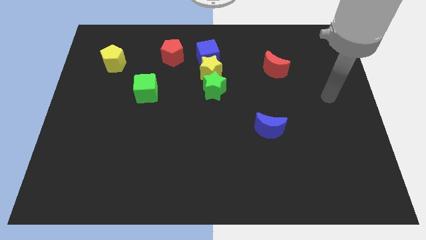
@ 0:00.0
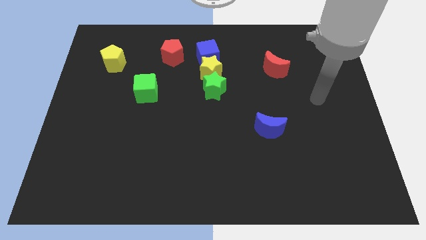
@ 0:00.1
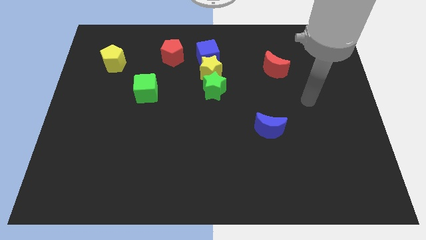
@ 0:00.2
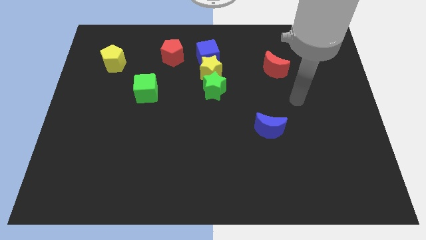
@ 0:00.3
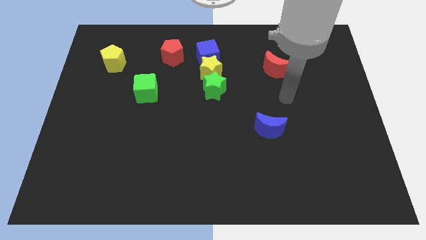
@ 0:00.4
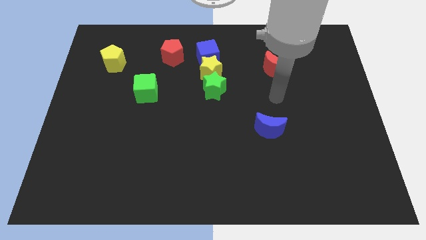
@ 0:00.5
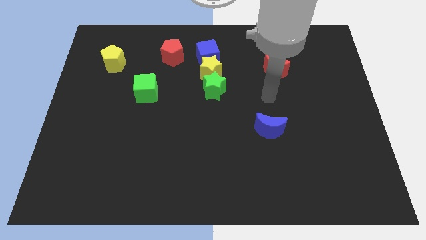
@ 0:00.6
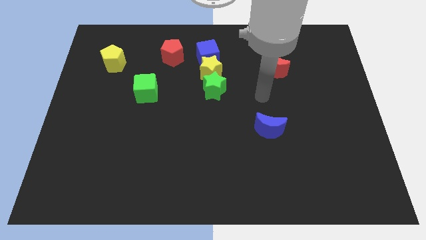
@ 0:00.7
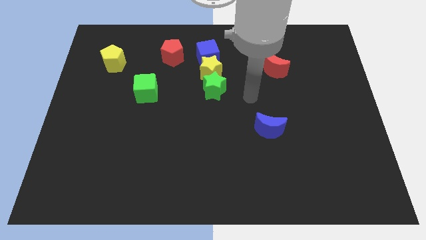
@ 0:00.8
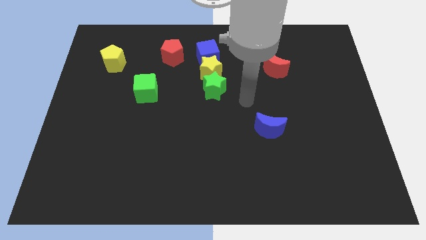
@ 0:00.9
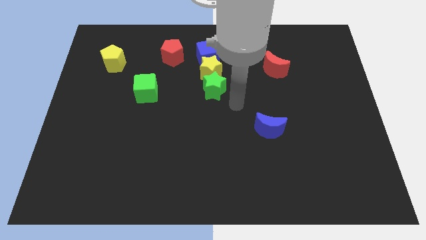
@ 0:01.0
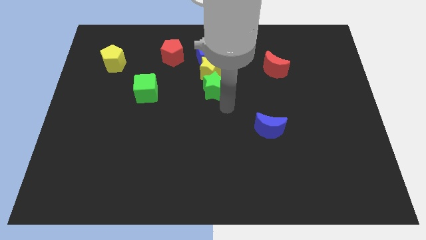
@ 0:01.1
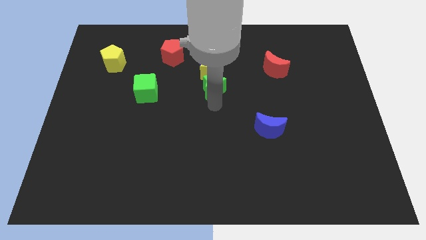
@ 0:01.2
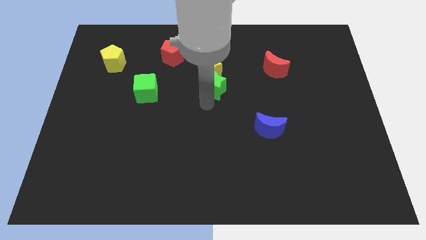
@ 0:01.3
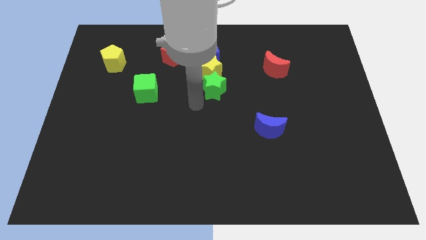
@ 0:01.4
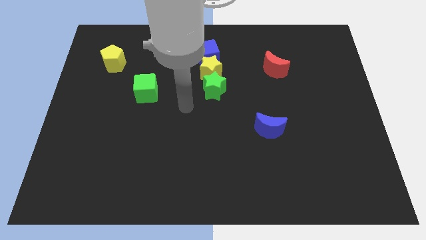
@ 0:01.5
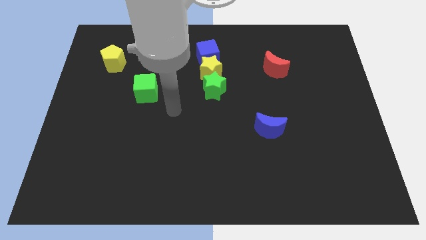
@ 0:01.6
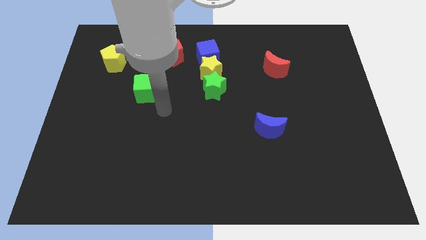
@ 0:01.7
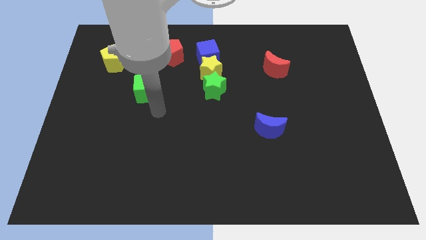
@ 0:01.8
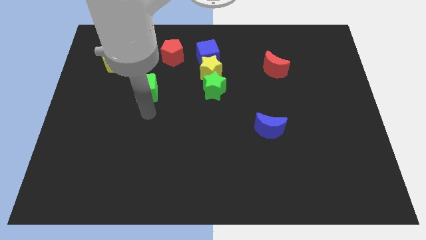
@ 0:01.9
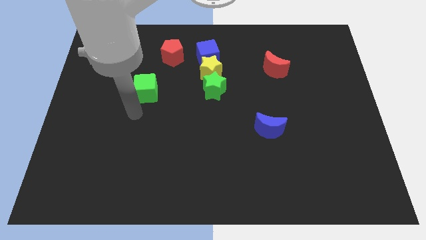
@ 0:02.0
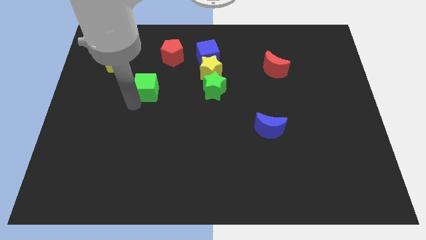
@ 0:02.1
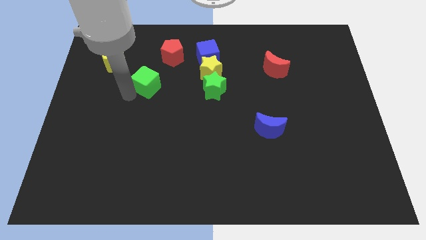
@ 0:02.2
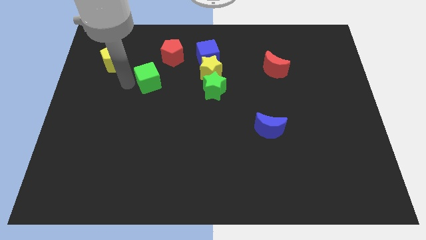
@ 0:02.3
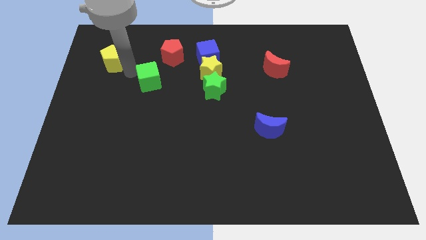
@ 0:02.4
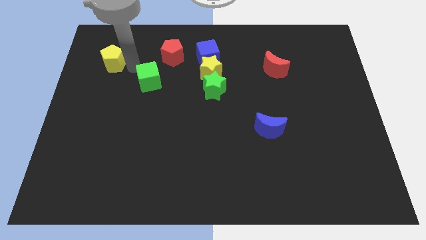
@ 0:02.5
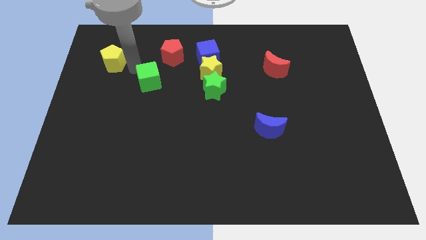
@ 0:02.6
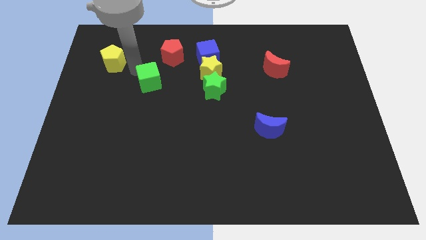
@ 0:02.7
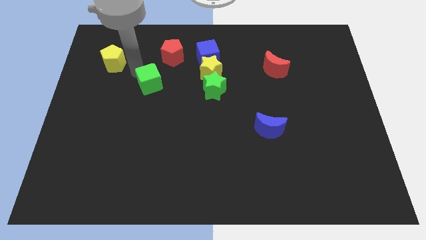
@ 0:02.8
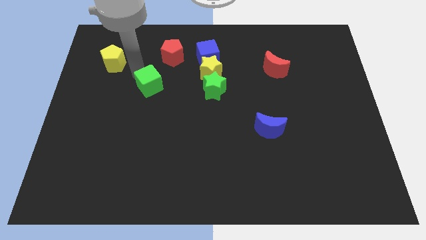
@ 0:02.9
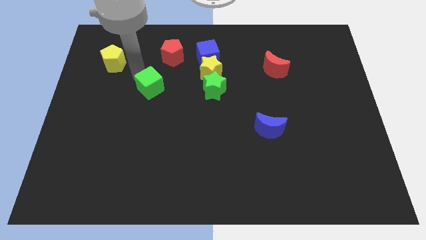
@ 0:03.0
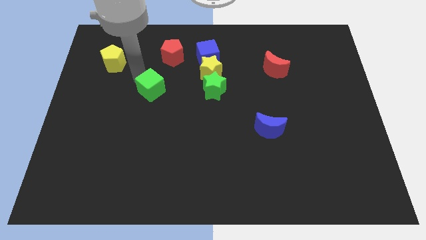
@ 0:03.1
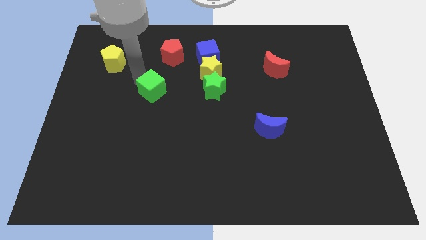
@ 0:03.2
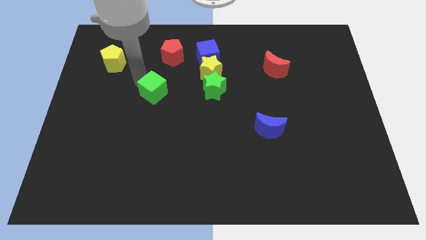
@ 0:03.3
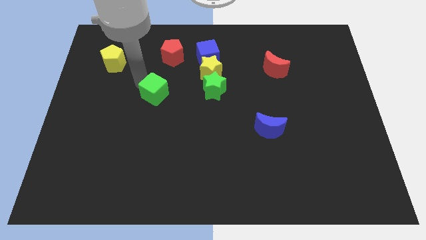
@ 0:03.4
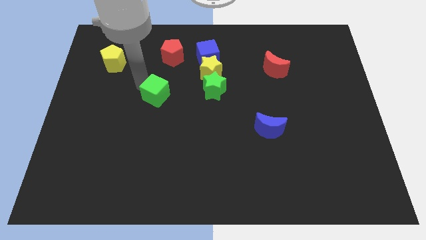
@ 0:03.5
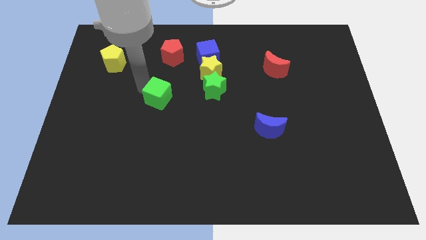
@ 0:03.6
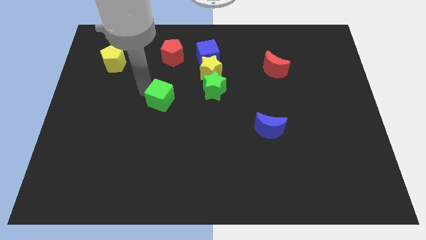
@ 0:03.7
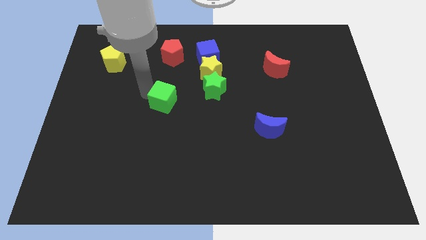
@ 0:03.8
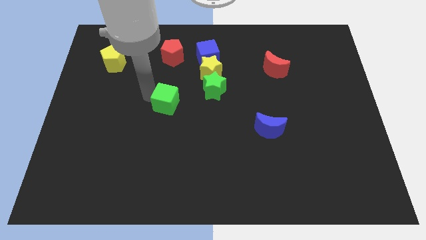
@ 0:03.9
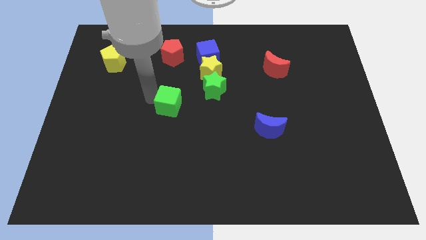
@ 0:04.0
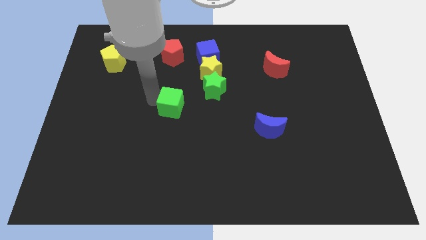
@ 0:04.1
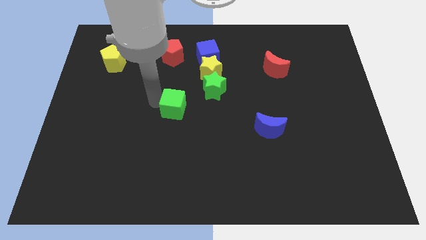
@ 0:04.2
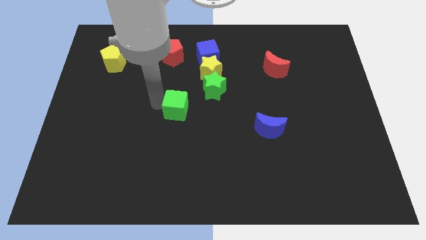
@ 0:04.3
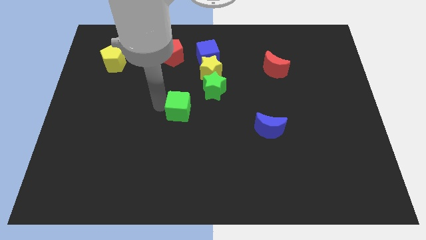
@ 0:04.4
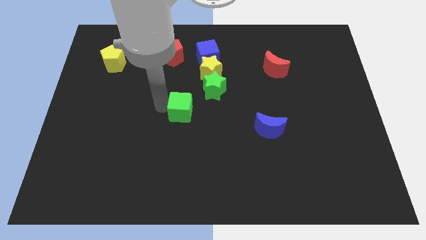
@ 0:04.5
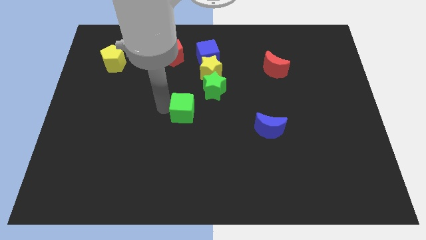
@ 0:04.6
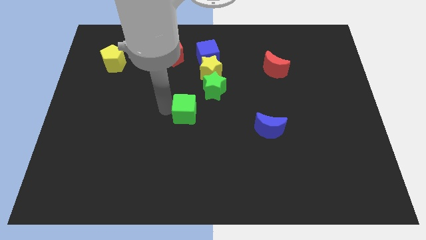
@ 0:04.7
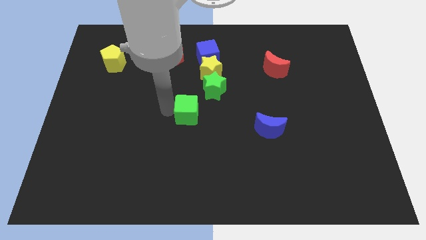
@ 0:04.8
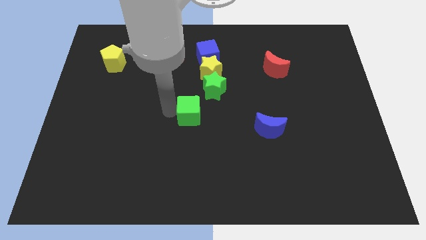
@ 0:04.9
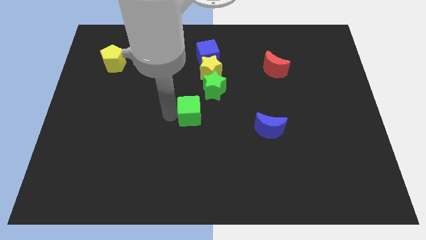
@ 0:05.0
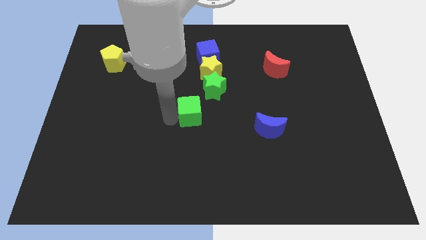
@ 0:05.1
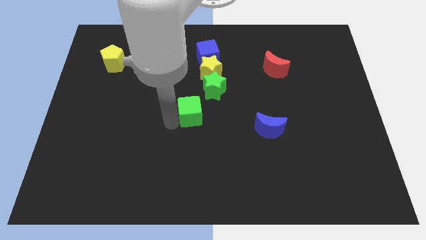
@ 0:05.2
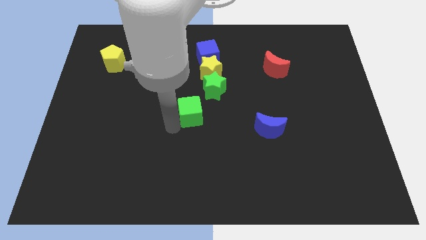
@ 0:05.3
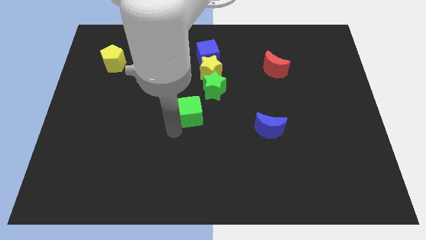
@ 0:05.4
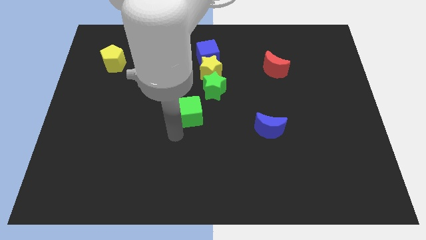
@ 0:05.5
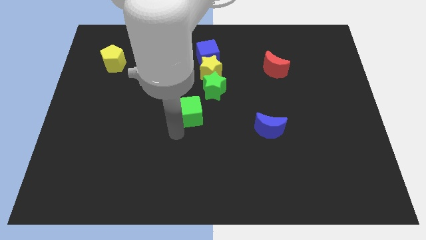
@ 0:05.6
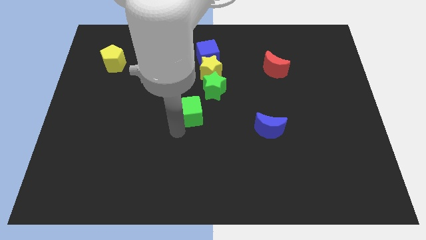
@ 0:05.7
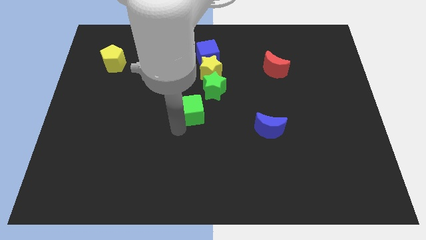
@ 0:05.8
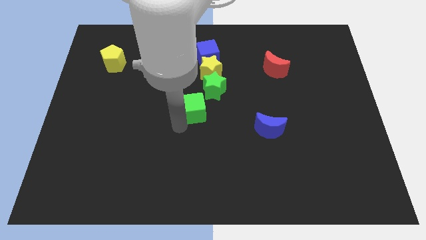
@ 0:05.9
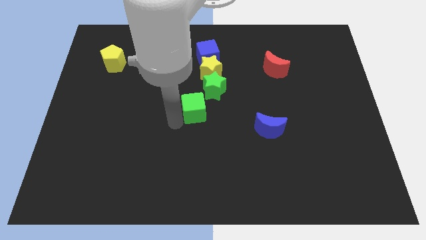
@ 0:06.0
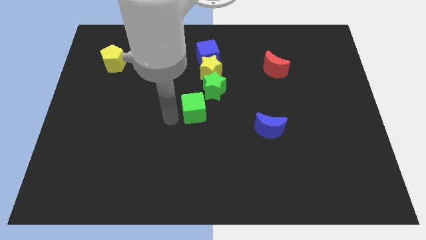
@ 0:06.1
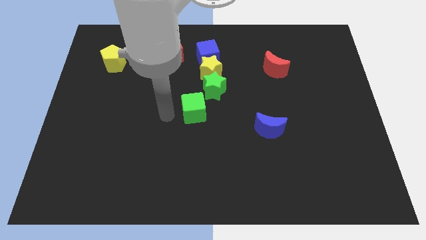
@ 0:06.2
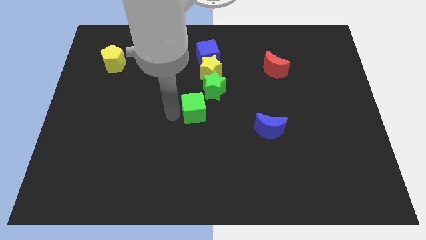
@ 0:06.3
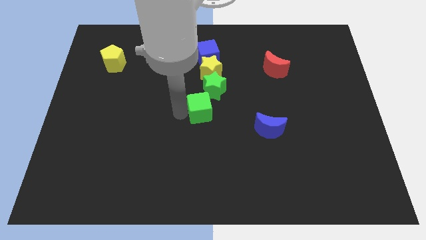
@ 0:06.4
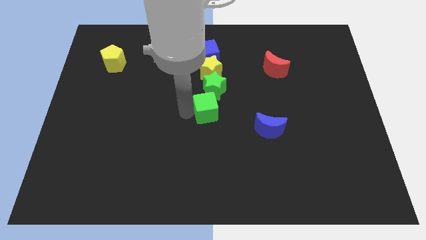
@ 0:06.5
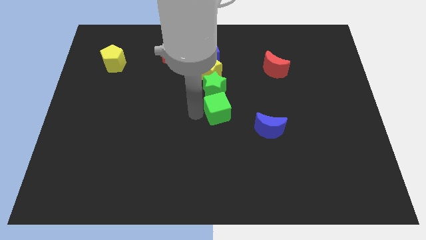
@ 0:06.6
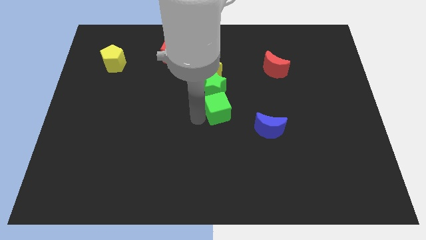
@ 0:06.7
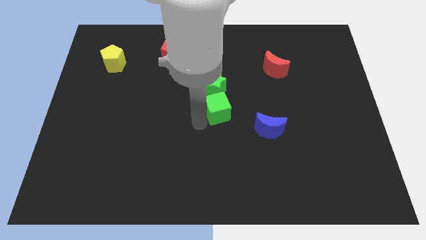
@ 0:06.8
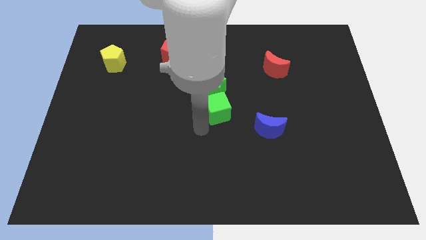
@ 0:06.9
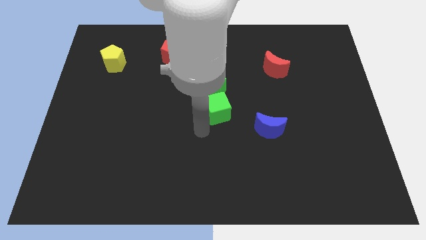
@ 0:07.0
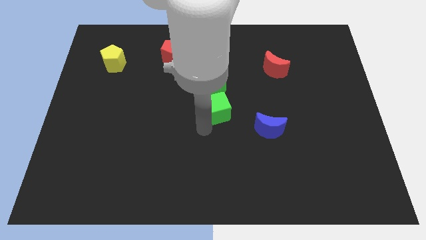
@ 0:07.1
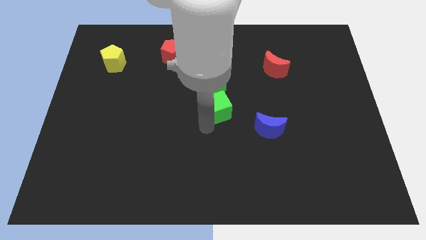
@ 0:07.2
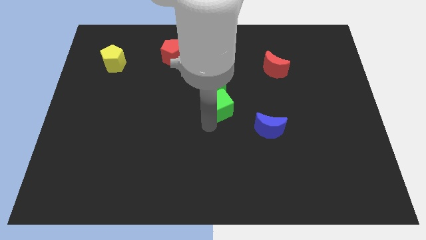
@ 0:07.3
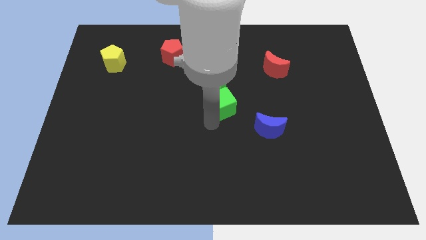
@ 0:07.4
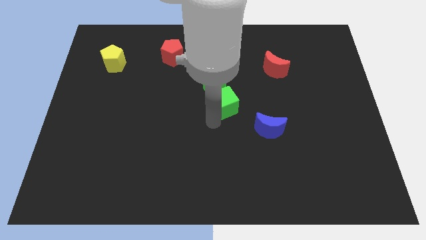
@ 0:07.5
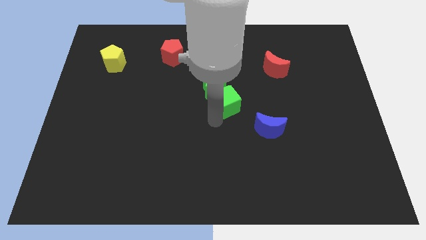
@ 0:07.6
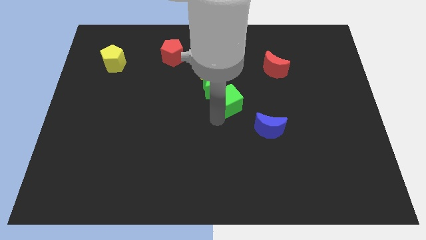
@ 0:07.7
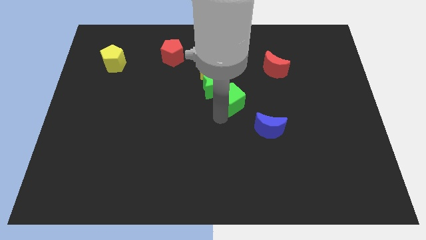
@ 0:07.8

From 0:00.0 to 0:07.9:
move the green cube right

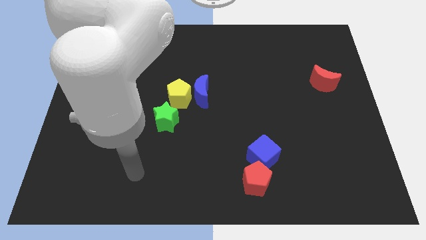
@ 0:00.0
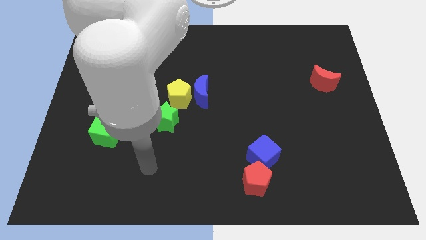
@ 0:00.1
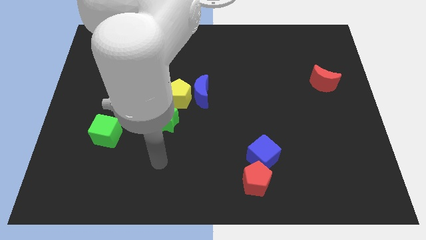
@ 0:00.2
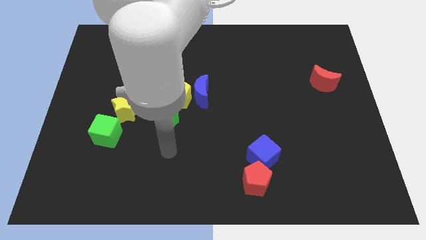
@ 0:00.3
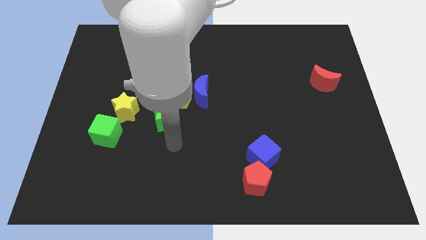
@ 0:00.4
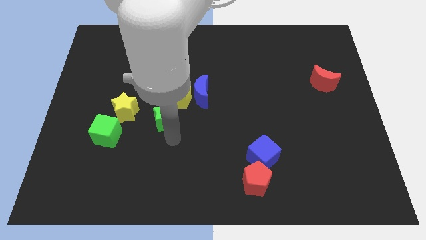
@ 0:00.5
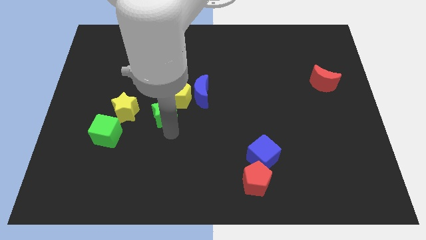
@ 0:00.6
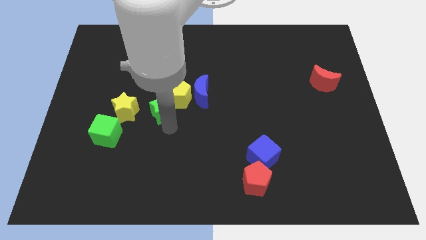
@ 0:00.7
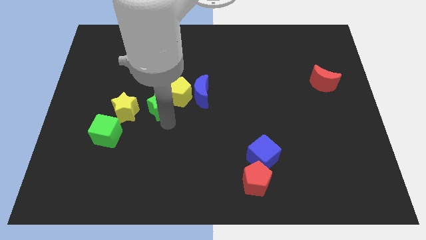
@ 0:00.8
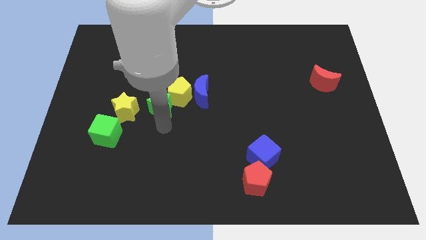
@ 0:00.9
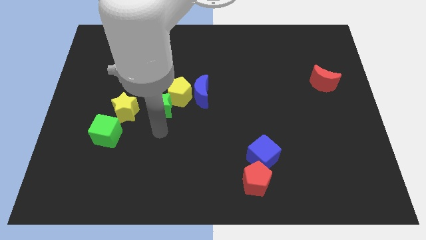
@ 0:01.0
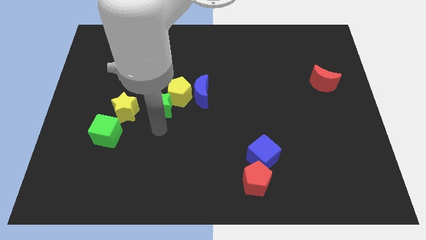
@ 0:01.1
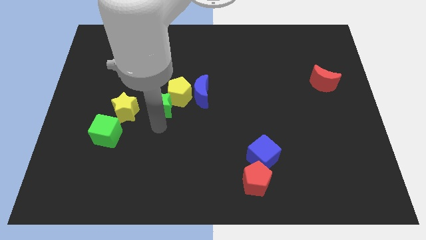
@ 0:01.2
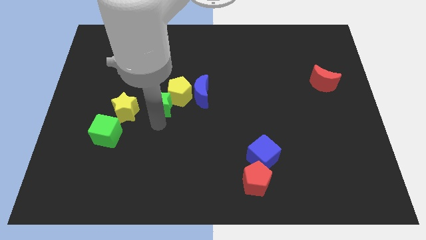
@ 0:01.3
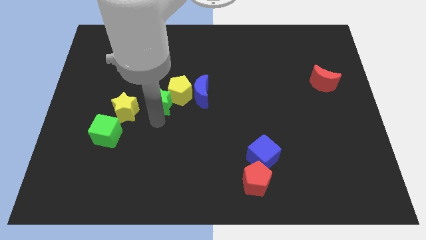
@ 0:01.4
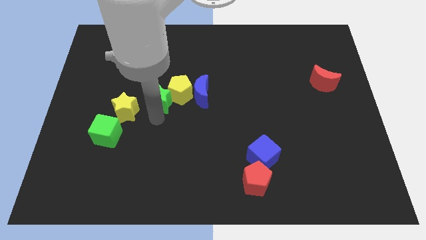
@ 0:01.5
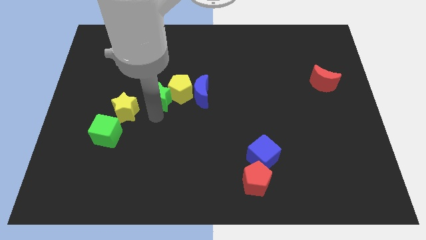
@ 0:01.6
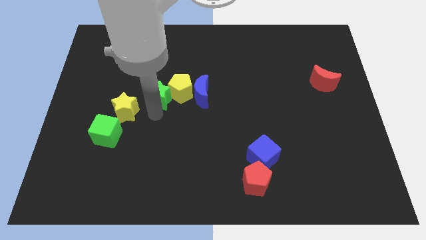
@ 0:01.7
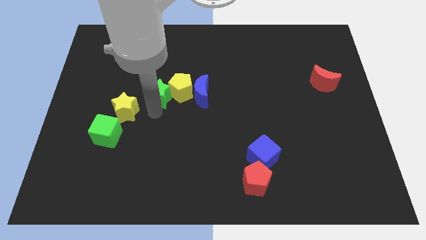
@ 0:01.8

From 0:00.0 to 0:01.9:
slide the green star a bit up
